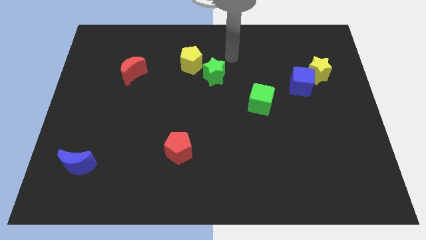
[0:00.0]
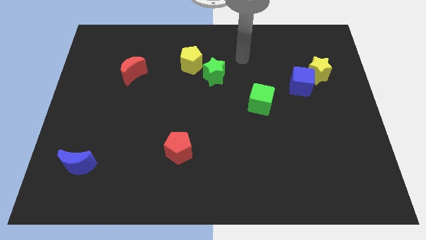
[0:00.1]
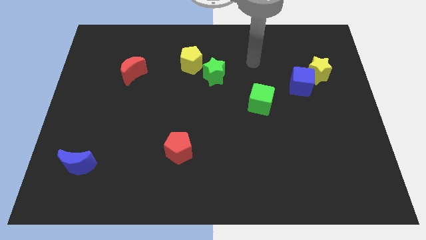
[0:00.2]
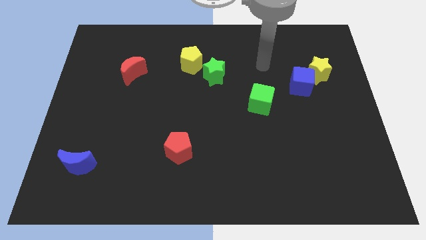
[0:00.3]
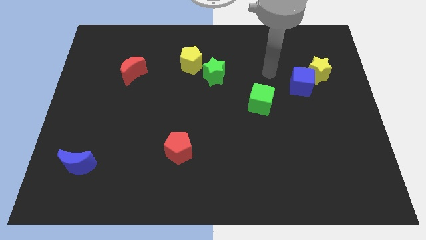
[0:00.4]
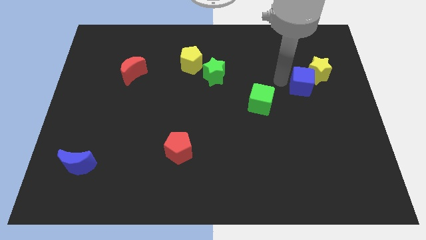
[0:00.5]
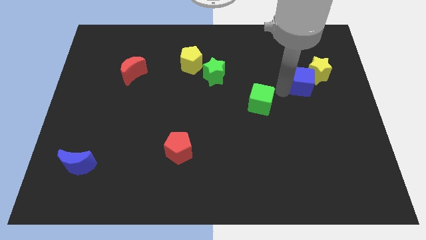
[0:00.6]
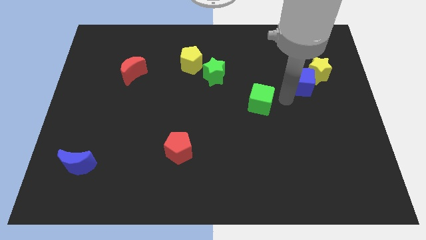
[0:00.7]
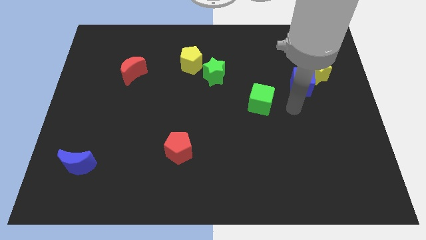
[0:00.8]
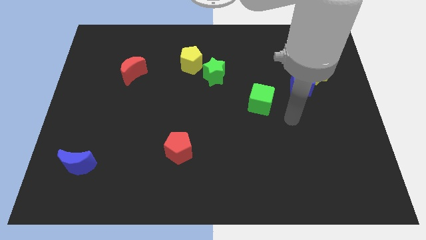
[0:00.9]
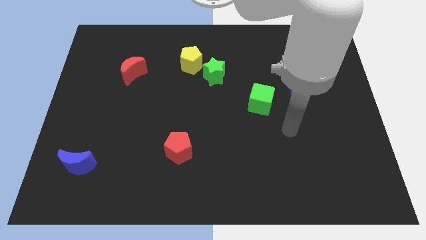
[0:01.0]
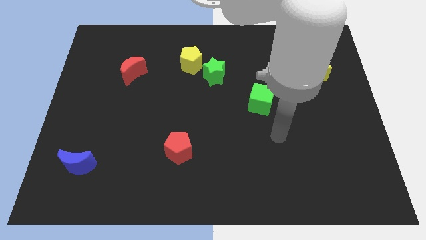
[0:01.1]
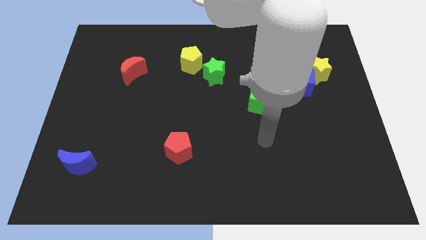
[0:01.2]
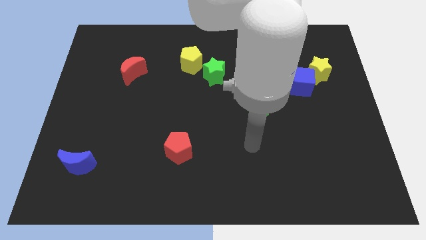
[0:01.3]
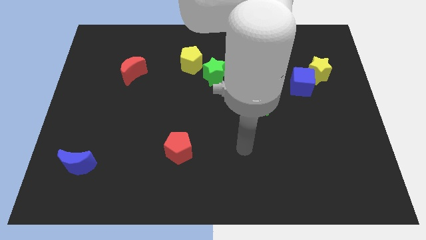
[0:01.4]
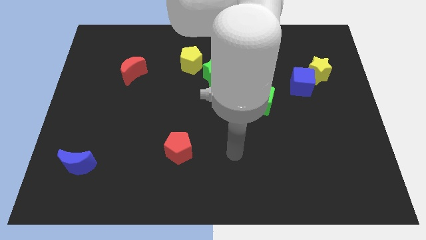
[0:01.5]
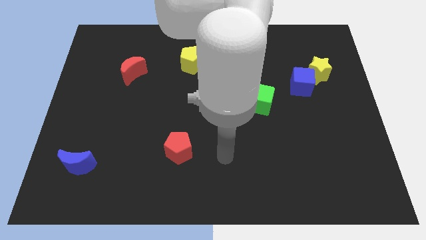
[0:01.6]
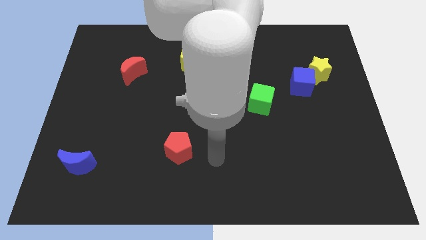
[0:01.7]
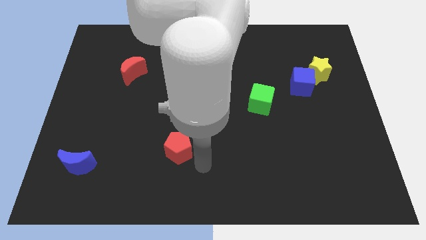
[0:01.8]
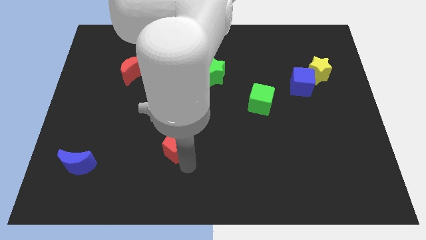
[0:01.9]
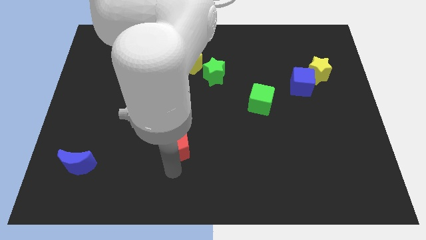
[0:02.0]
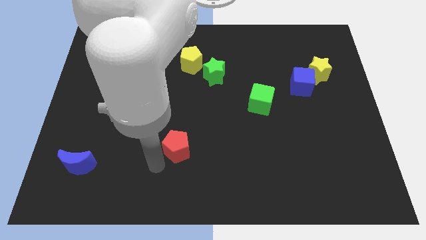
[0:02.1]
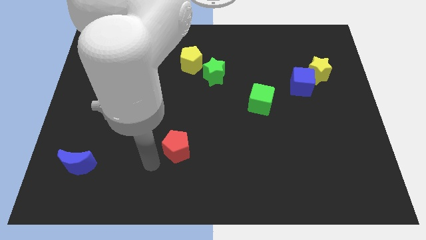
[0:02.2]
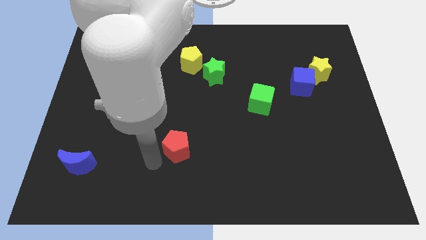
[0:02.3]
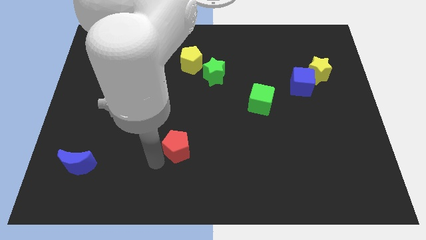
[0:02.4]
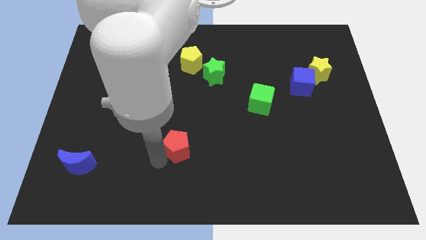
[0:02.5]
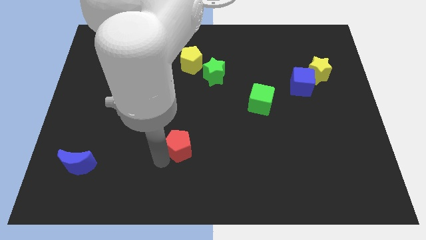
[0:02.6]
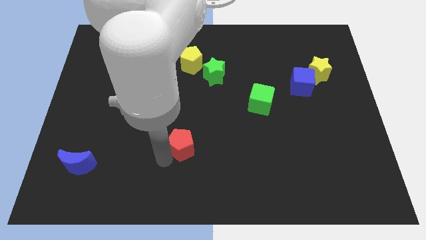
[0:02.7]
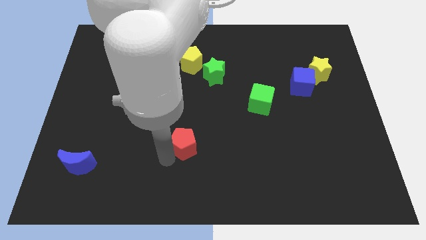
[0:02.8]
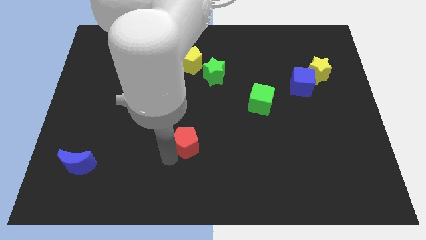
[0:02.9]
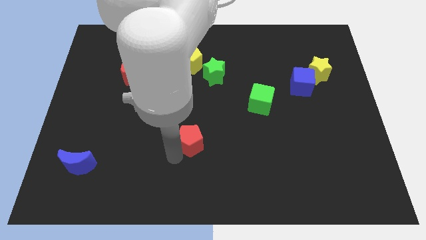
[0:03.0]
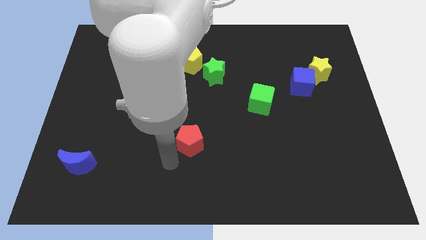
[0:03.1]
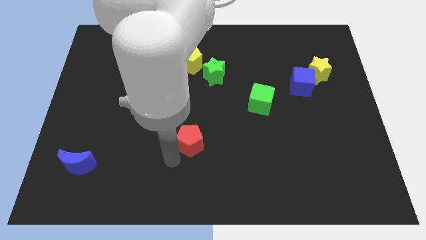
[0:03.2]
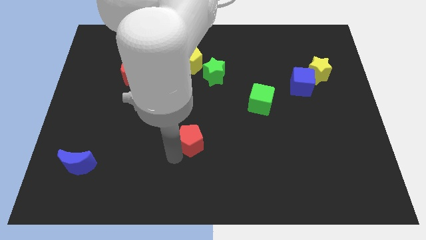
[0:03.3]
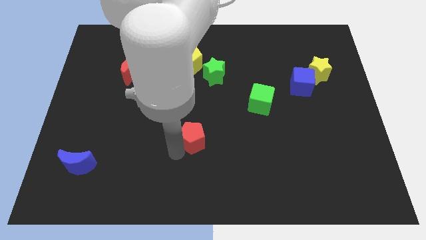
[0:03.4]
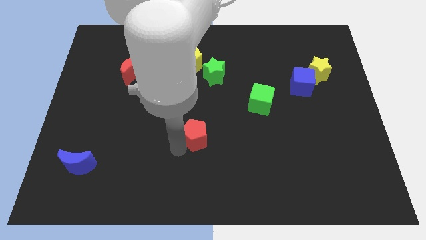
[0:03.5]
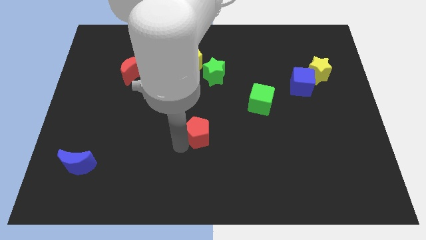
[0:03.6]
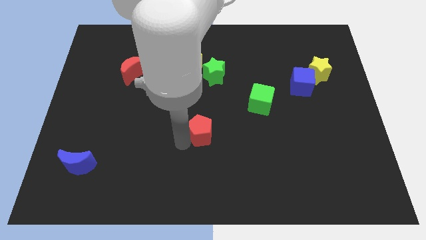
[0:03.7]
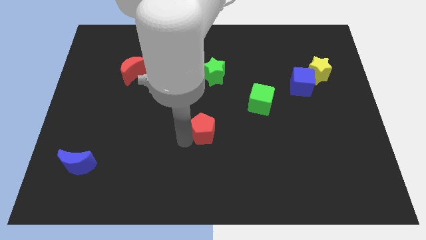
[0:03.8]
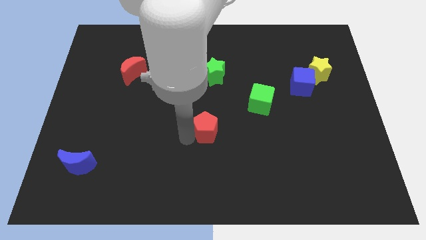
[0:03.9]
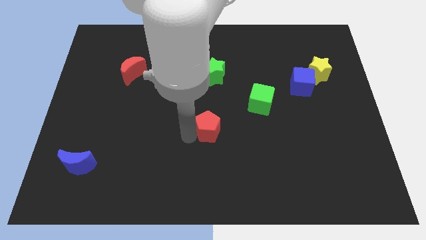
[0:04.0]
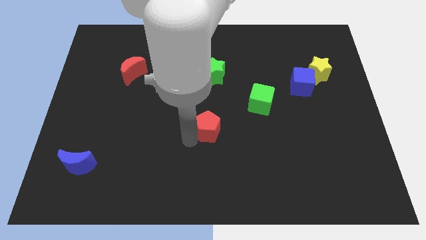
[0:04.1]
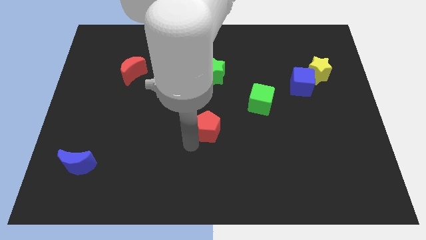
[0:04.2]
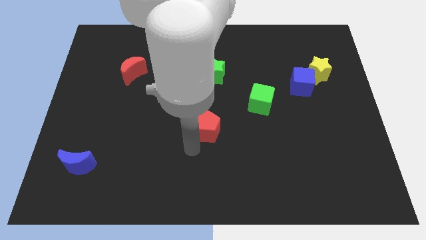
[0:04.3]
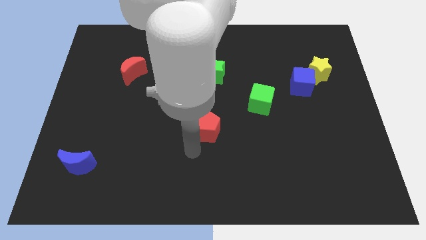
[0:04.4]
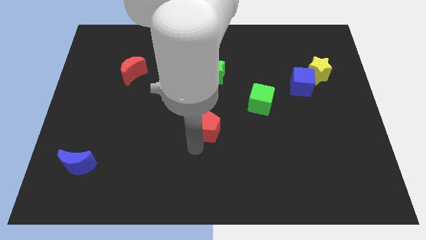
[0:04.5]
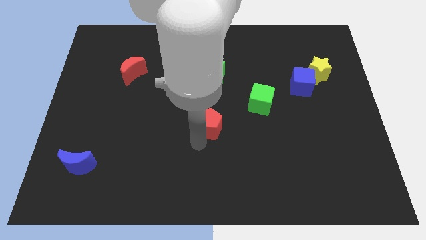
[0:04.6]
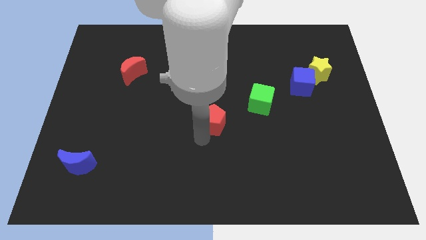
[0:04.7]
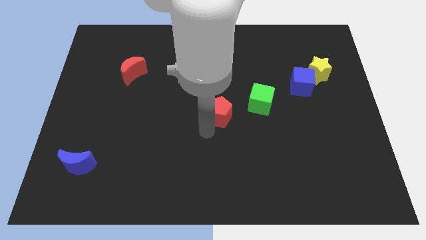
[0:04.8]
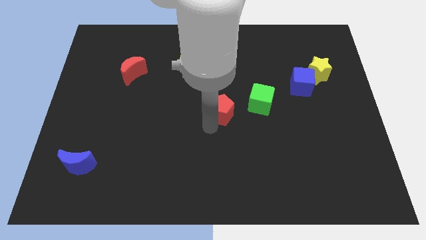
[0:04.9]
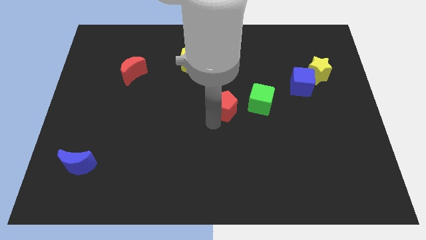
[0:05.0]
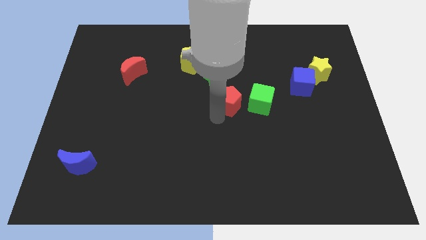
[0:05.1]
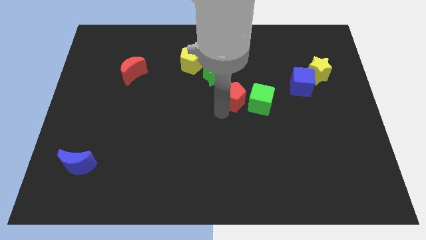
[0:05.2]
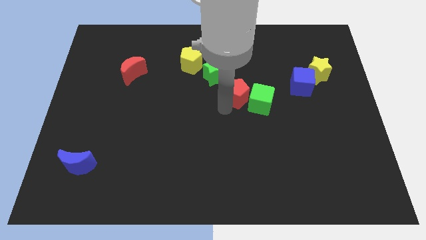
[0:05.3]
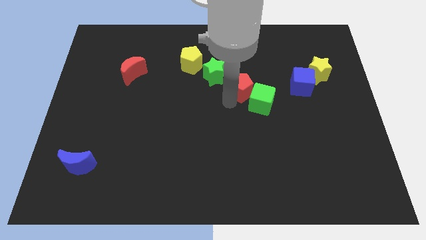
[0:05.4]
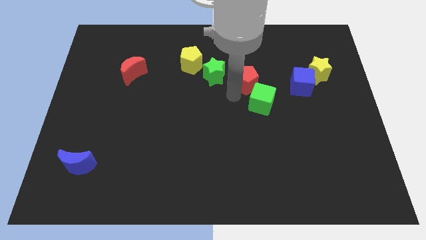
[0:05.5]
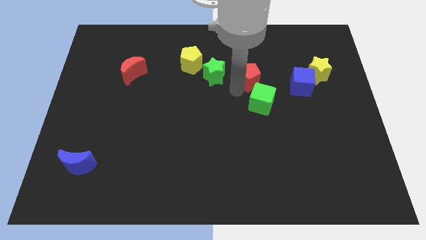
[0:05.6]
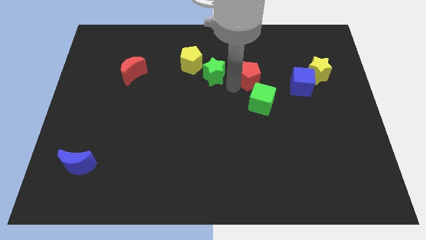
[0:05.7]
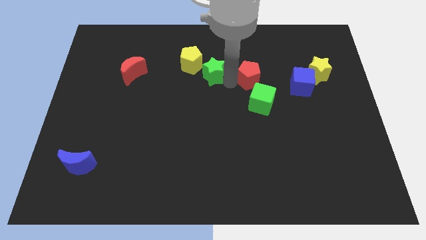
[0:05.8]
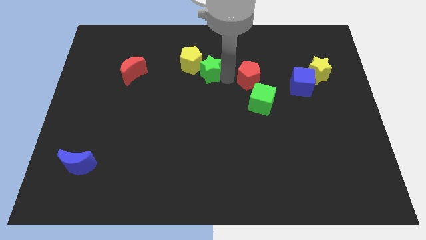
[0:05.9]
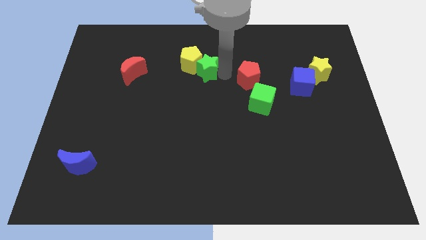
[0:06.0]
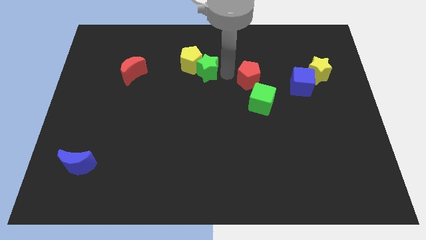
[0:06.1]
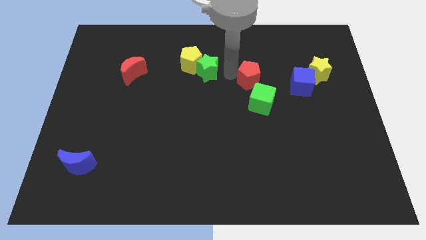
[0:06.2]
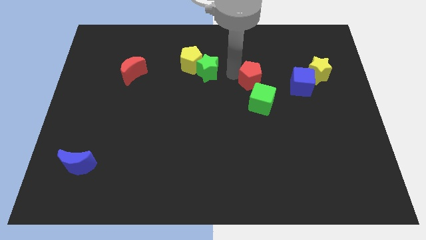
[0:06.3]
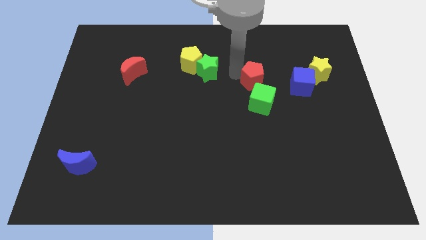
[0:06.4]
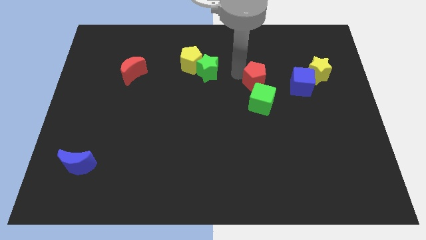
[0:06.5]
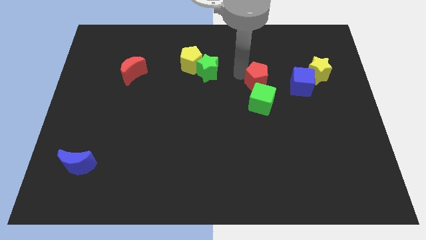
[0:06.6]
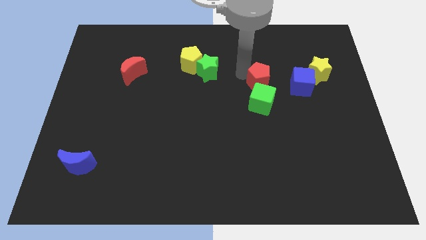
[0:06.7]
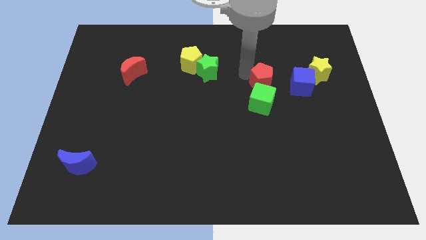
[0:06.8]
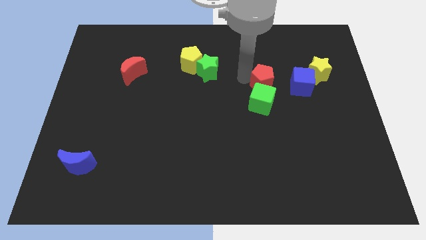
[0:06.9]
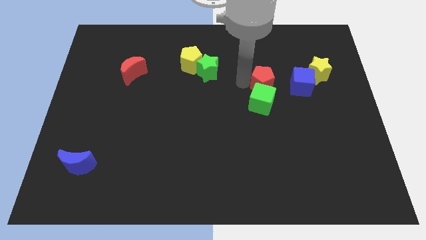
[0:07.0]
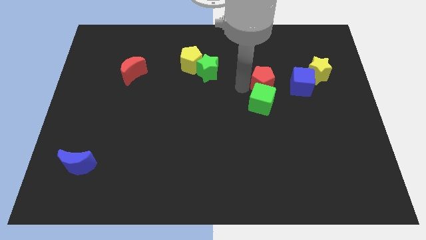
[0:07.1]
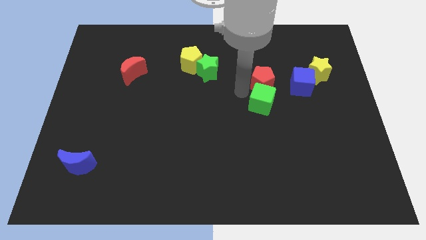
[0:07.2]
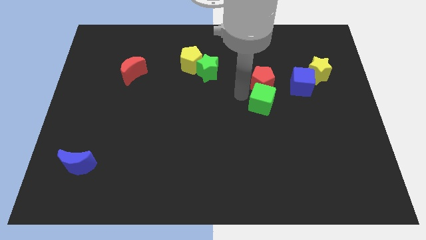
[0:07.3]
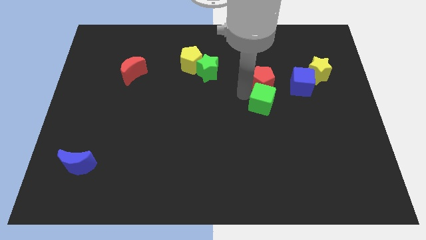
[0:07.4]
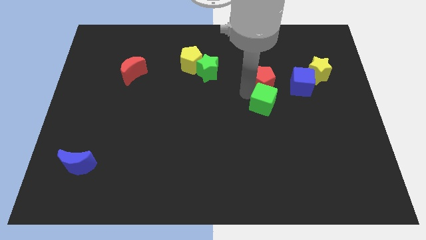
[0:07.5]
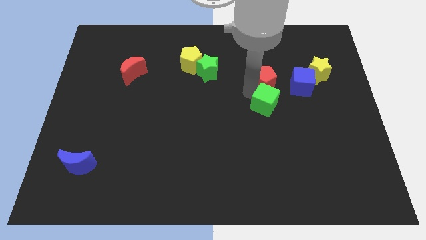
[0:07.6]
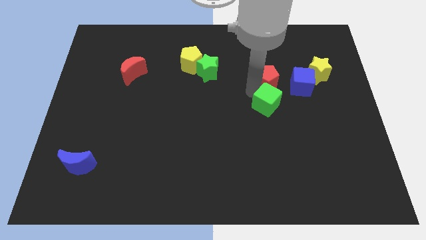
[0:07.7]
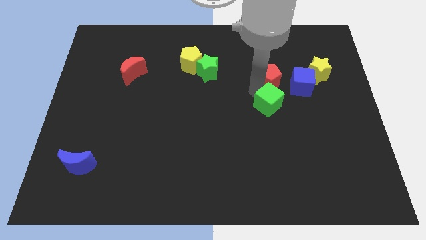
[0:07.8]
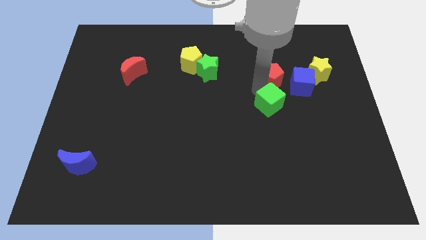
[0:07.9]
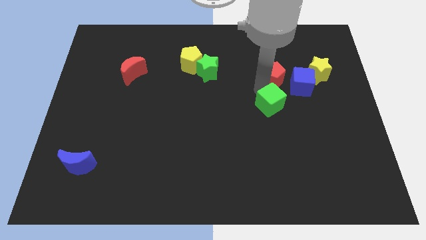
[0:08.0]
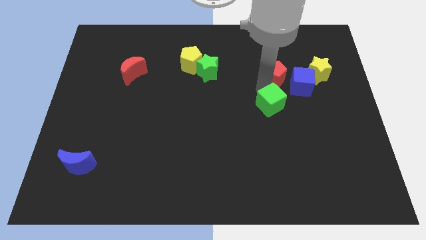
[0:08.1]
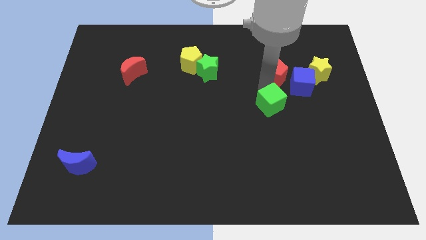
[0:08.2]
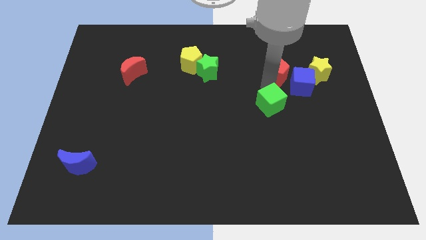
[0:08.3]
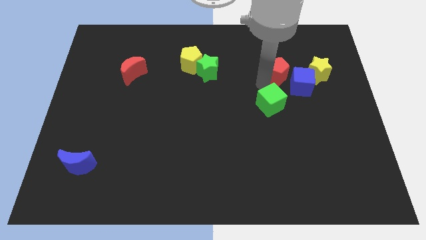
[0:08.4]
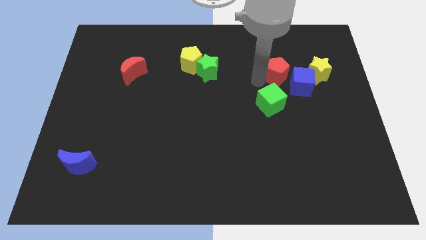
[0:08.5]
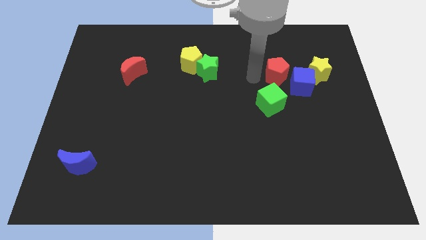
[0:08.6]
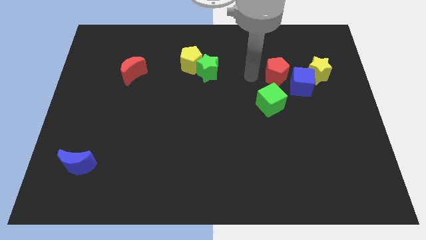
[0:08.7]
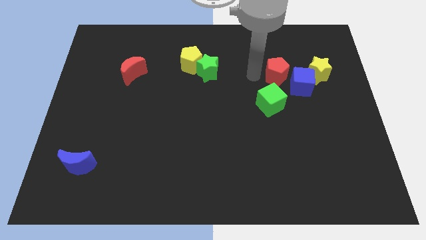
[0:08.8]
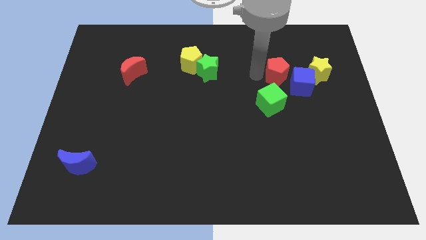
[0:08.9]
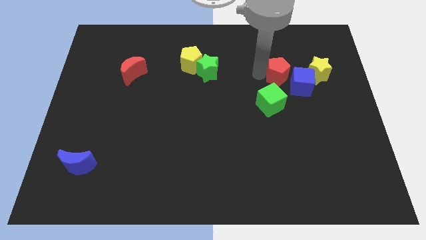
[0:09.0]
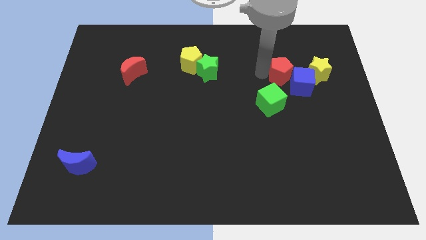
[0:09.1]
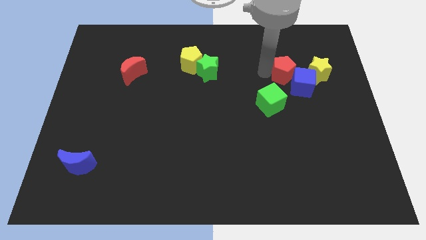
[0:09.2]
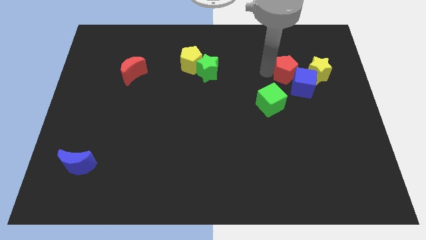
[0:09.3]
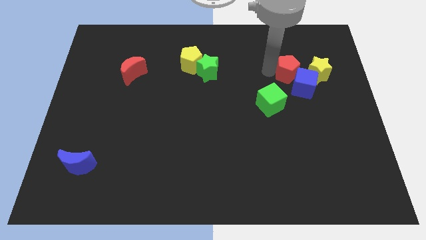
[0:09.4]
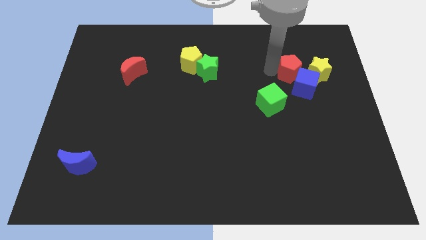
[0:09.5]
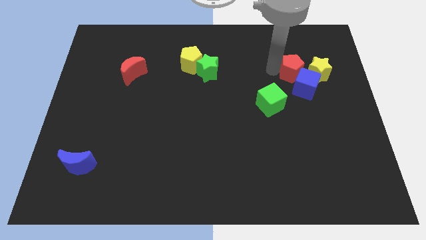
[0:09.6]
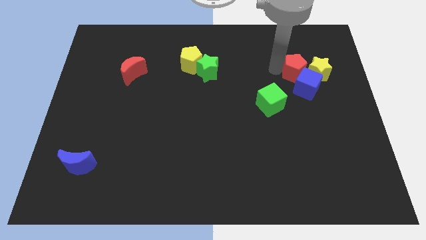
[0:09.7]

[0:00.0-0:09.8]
move the red pentagon to the yellow star
